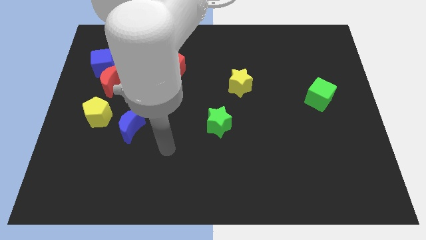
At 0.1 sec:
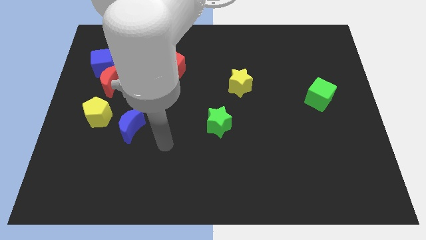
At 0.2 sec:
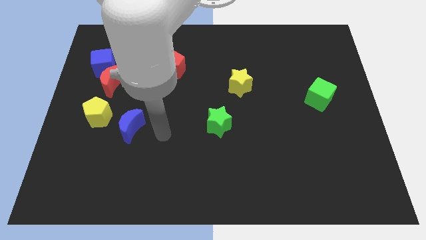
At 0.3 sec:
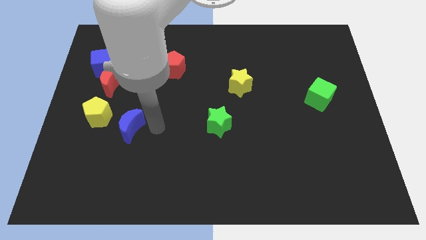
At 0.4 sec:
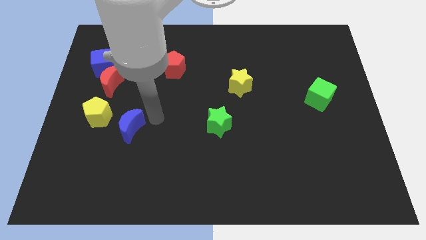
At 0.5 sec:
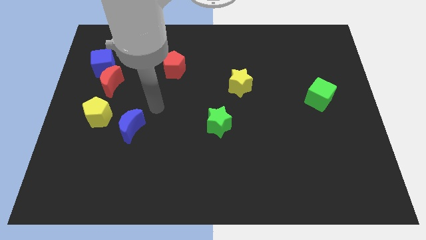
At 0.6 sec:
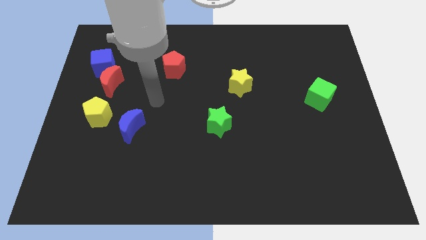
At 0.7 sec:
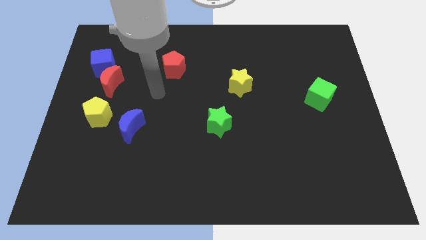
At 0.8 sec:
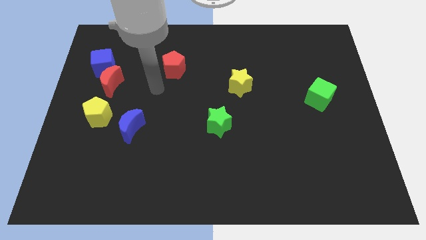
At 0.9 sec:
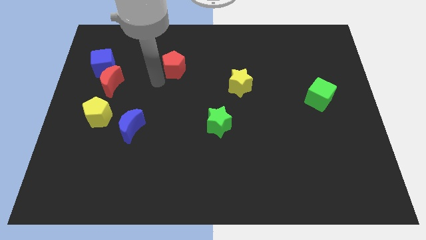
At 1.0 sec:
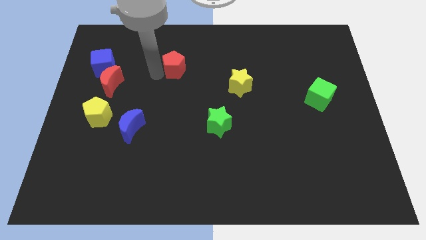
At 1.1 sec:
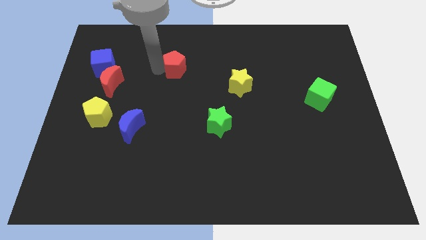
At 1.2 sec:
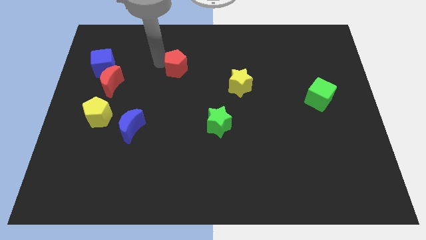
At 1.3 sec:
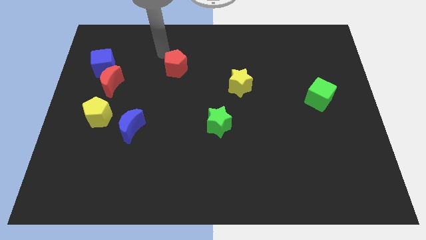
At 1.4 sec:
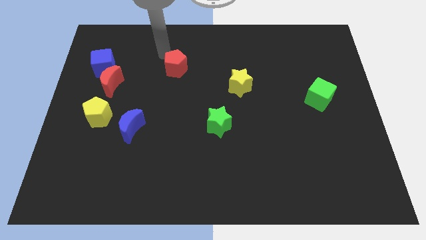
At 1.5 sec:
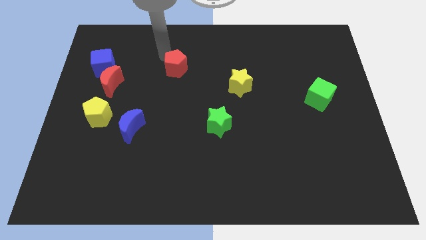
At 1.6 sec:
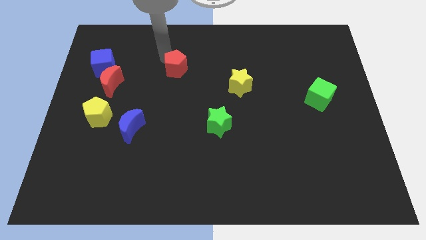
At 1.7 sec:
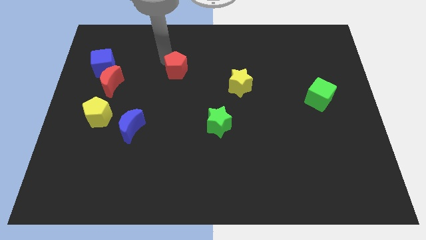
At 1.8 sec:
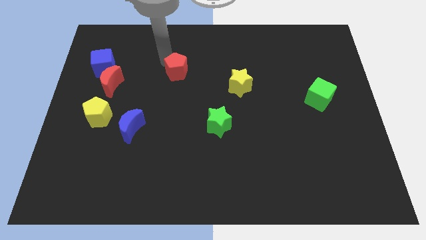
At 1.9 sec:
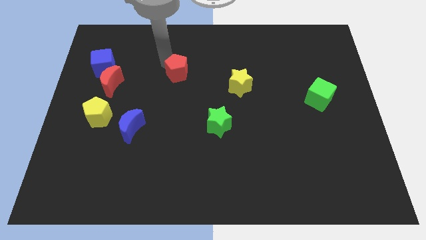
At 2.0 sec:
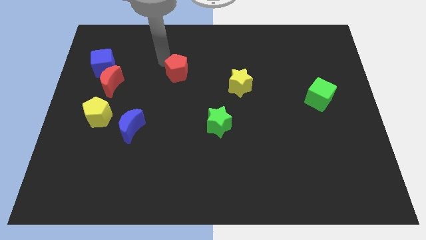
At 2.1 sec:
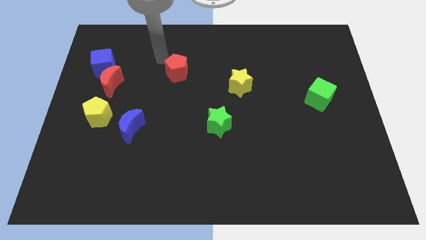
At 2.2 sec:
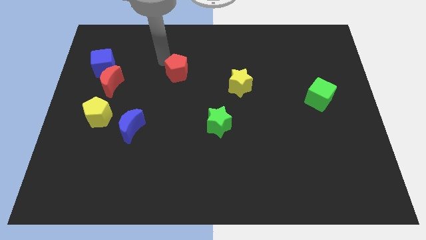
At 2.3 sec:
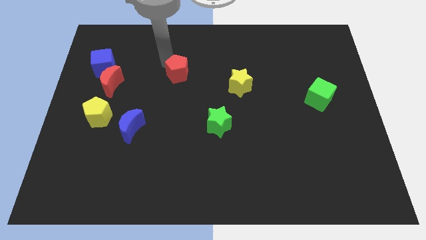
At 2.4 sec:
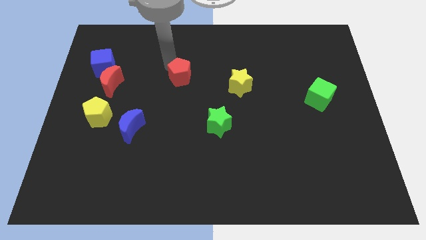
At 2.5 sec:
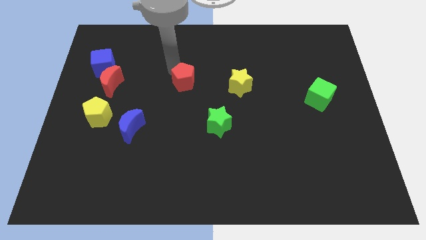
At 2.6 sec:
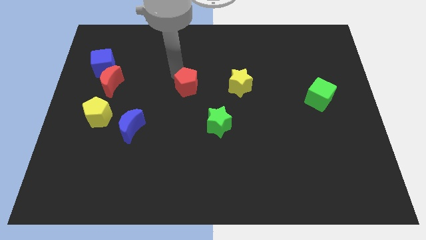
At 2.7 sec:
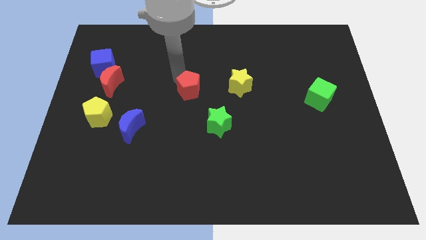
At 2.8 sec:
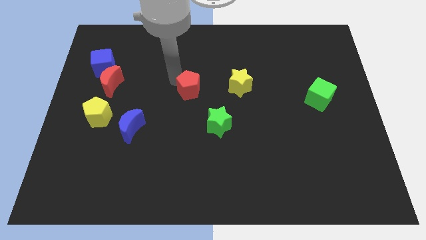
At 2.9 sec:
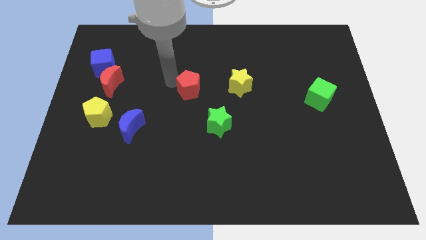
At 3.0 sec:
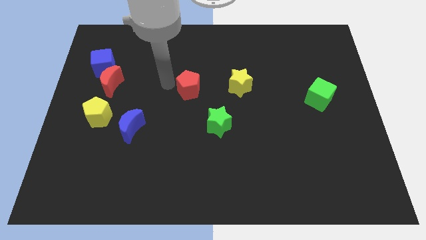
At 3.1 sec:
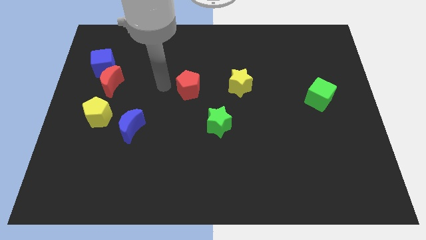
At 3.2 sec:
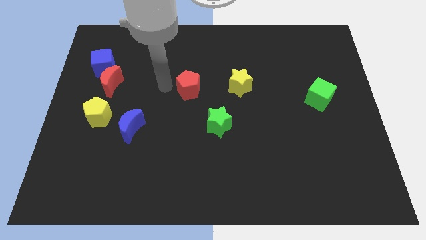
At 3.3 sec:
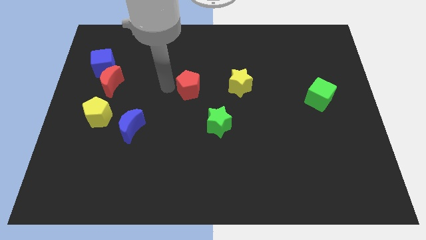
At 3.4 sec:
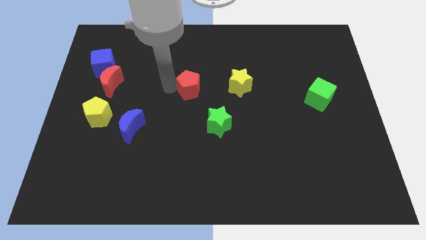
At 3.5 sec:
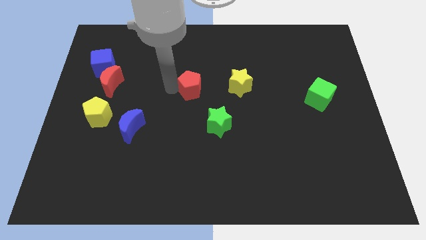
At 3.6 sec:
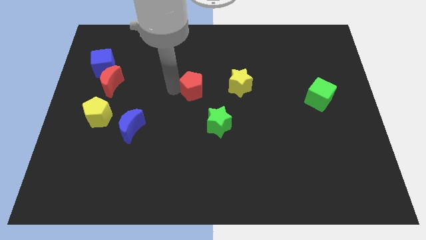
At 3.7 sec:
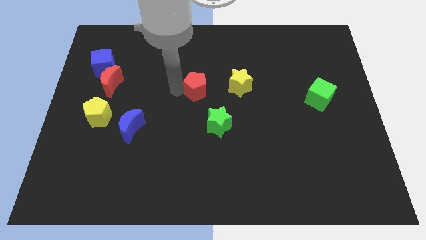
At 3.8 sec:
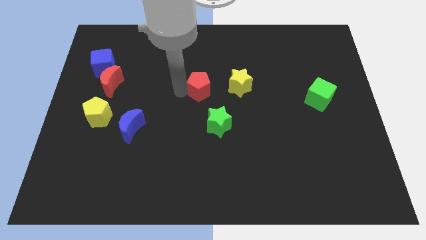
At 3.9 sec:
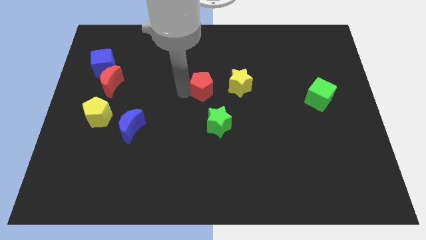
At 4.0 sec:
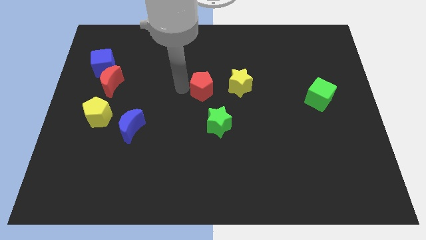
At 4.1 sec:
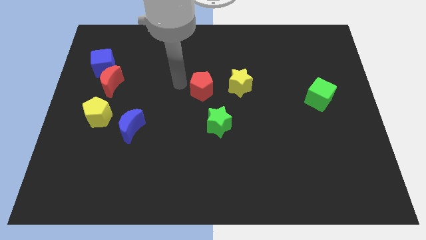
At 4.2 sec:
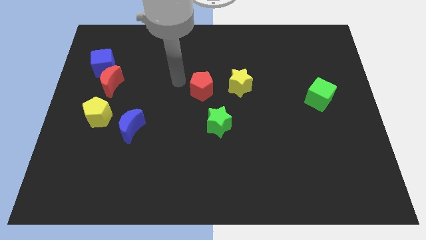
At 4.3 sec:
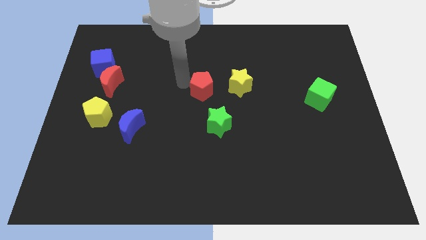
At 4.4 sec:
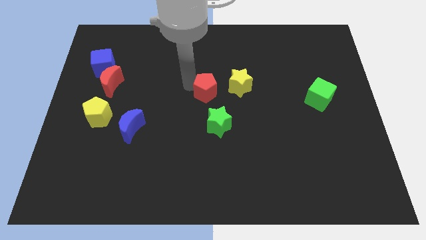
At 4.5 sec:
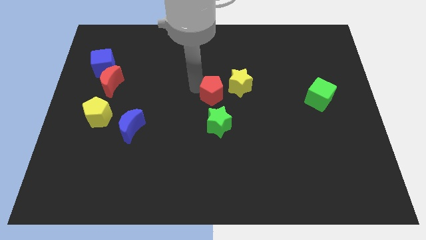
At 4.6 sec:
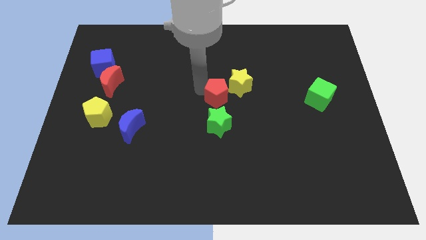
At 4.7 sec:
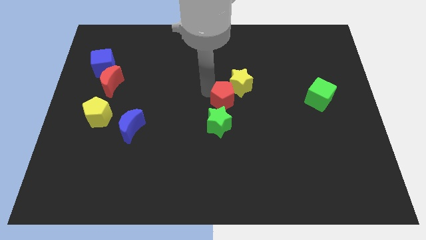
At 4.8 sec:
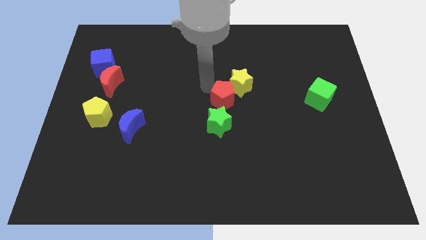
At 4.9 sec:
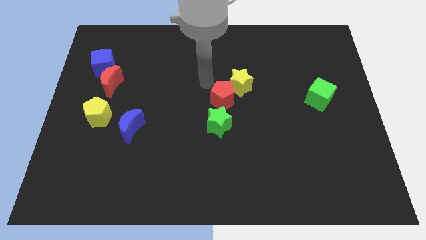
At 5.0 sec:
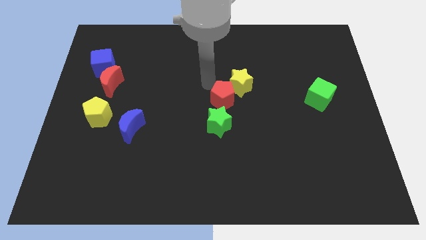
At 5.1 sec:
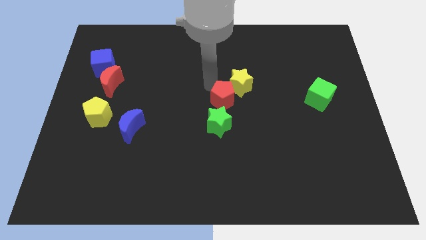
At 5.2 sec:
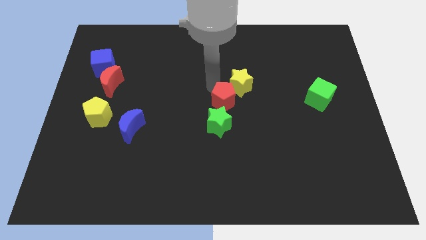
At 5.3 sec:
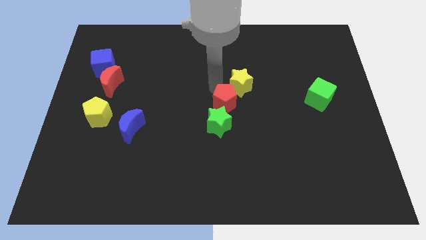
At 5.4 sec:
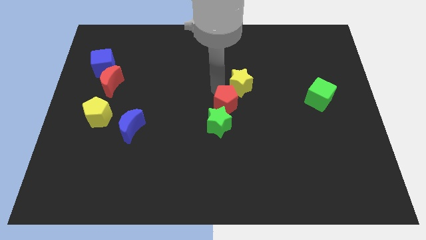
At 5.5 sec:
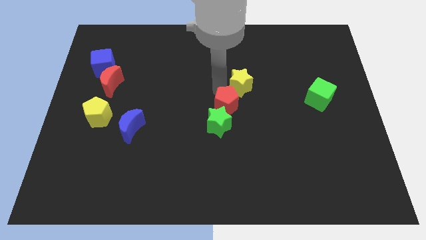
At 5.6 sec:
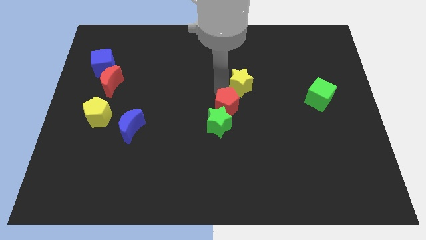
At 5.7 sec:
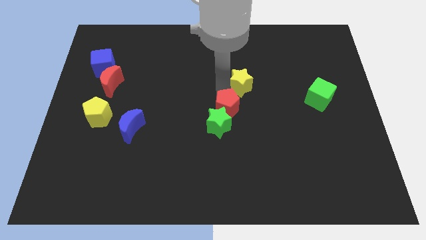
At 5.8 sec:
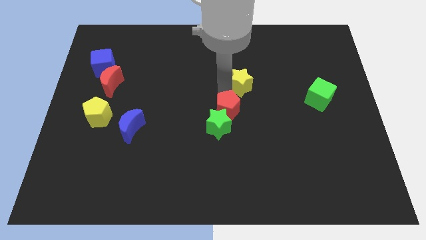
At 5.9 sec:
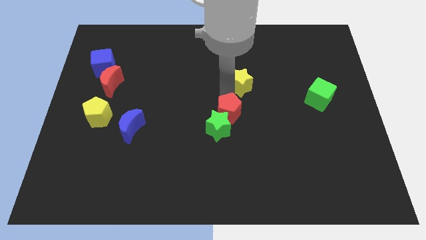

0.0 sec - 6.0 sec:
push the red pentagon diagonally downwards and to the right

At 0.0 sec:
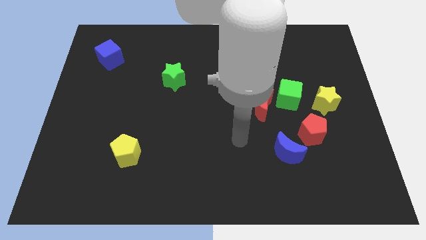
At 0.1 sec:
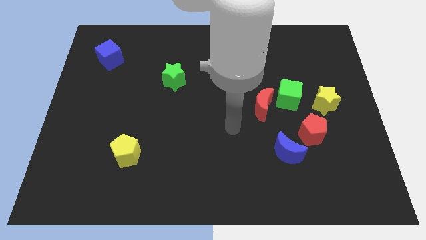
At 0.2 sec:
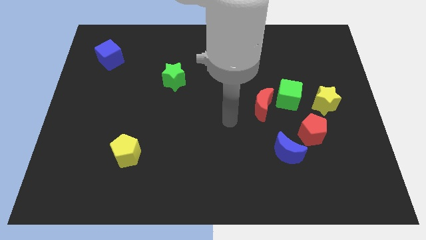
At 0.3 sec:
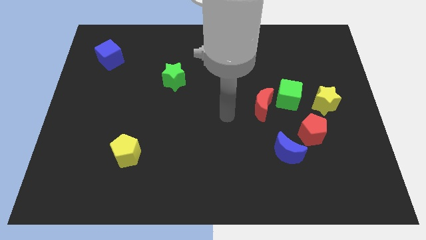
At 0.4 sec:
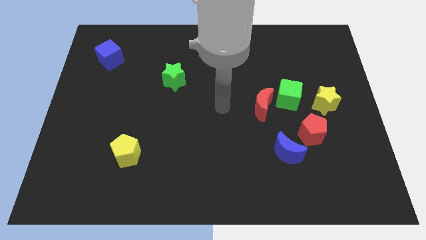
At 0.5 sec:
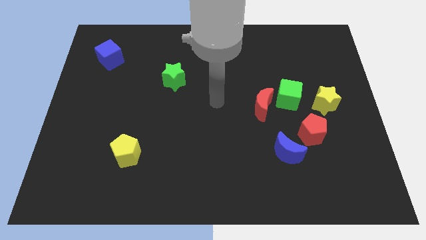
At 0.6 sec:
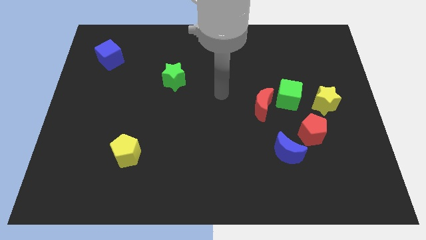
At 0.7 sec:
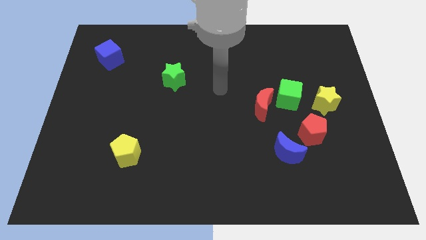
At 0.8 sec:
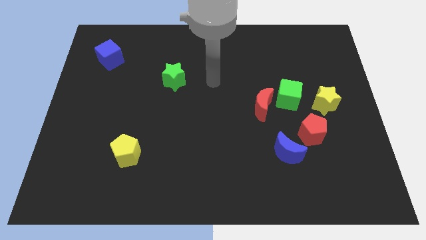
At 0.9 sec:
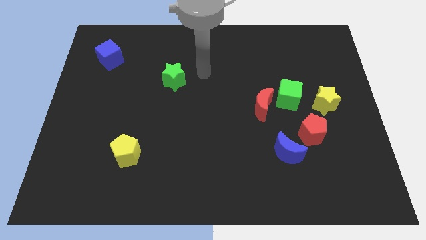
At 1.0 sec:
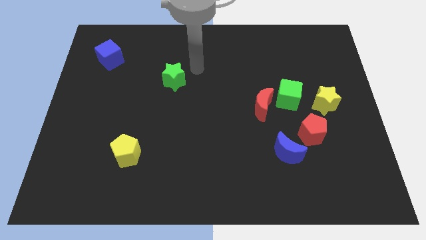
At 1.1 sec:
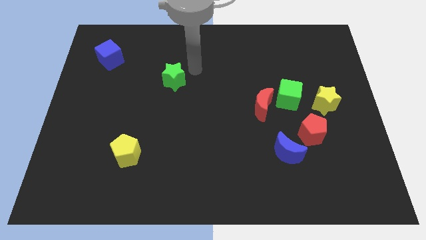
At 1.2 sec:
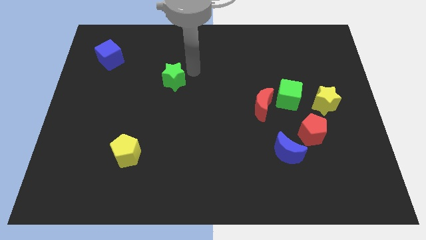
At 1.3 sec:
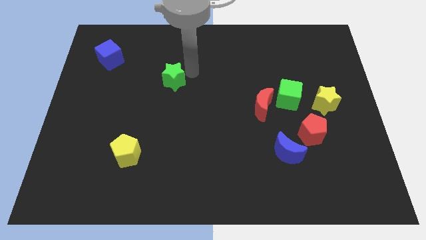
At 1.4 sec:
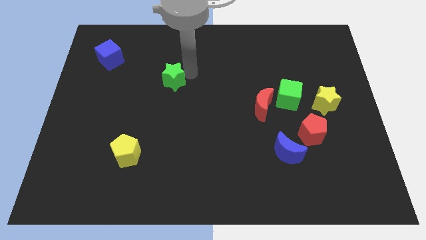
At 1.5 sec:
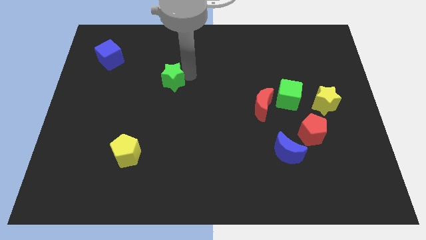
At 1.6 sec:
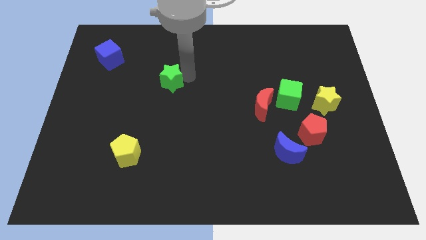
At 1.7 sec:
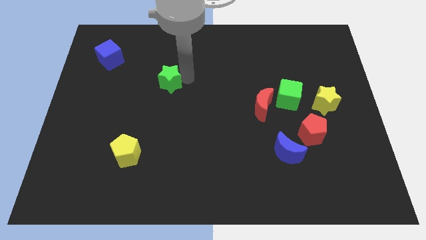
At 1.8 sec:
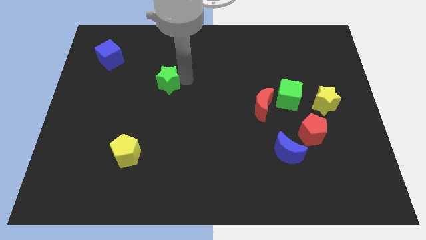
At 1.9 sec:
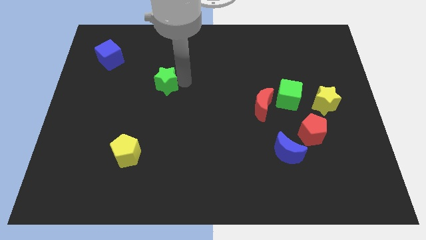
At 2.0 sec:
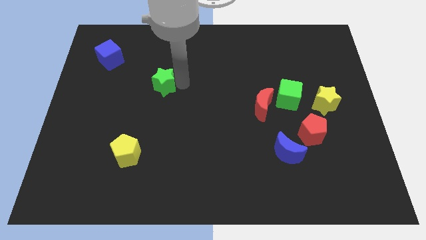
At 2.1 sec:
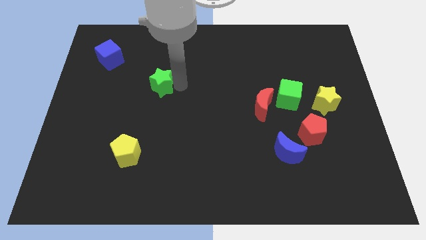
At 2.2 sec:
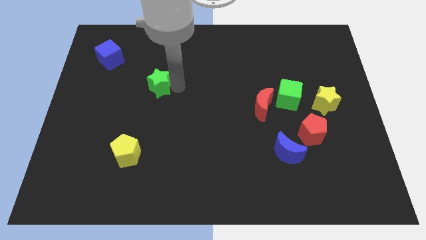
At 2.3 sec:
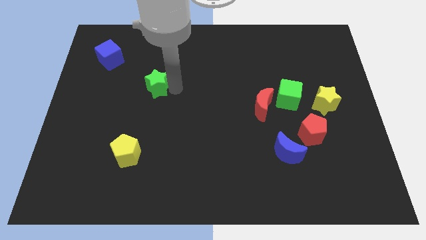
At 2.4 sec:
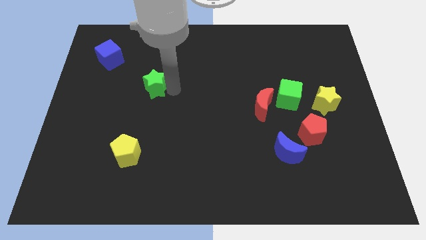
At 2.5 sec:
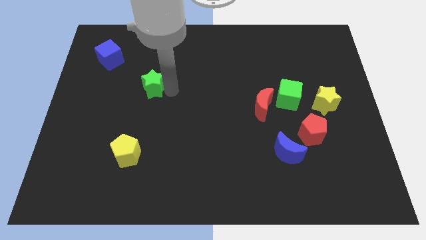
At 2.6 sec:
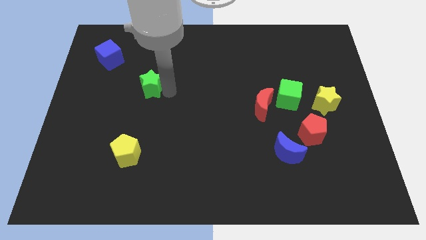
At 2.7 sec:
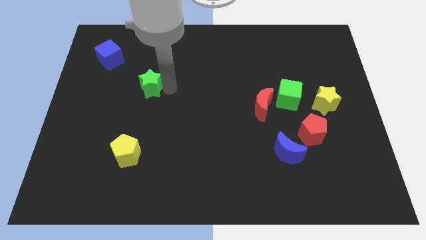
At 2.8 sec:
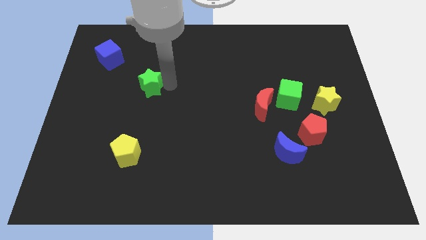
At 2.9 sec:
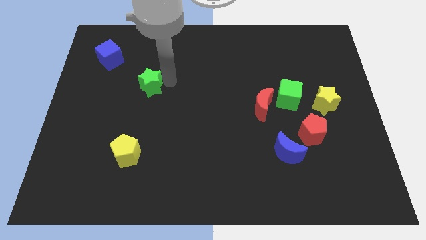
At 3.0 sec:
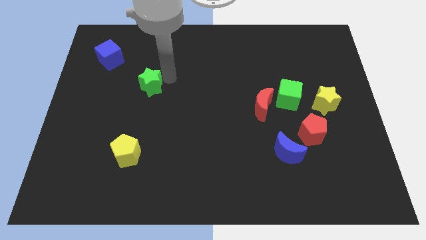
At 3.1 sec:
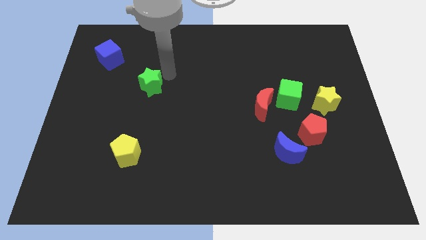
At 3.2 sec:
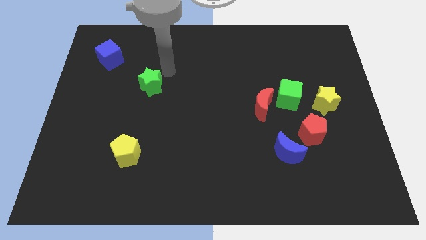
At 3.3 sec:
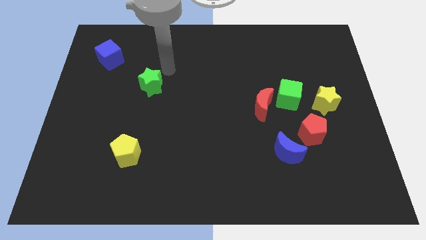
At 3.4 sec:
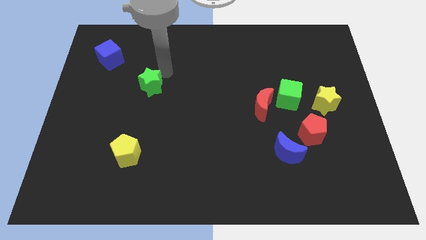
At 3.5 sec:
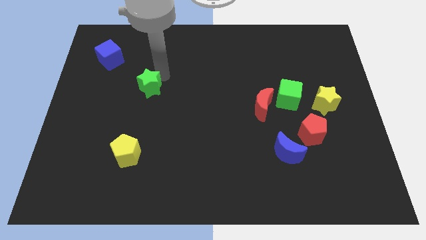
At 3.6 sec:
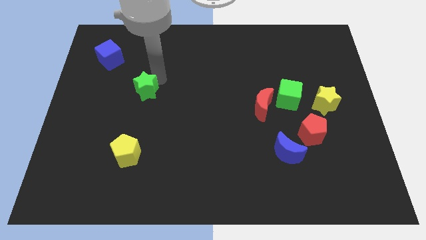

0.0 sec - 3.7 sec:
slide the green star a bit down and then to the left
